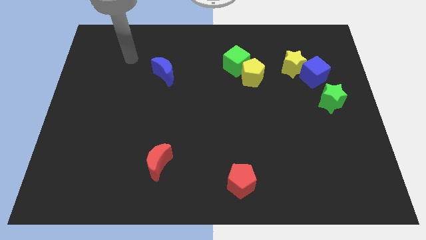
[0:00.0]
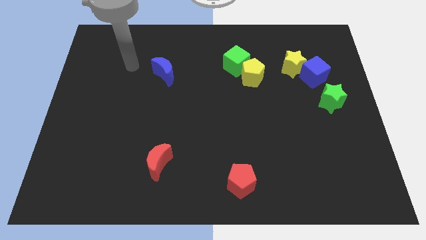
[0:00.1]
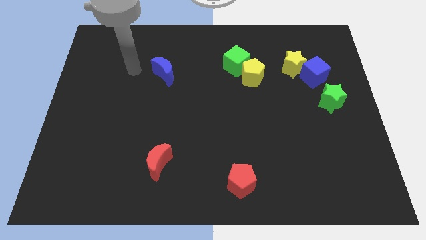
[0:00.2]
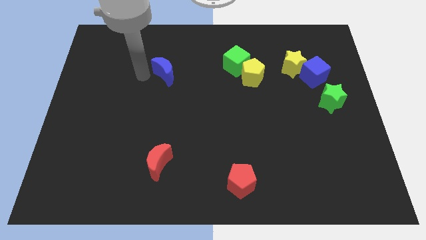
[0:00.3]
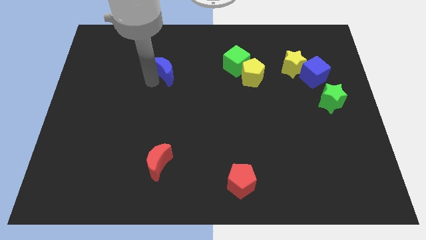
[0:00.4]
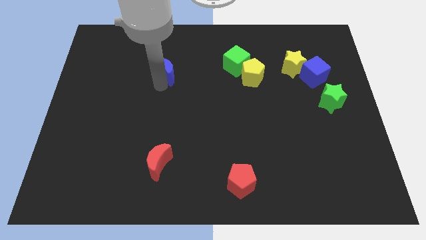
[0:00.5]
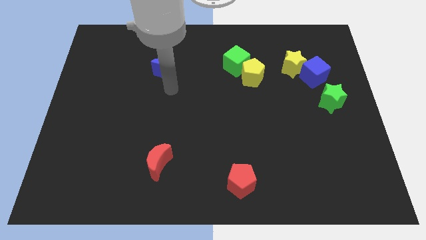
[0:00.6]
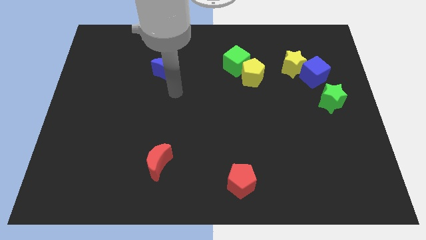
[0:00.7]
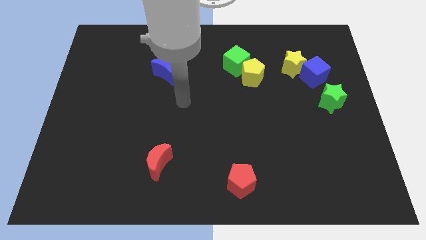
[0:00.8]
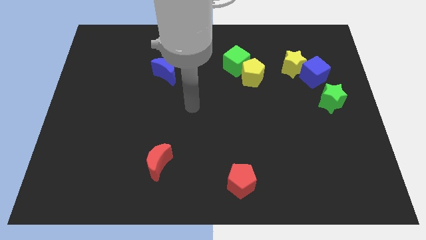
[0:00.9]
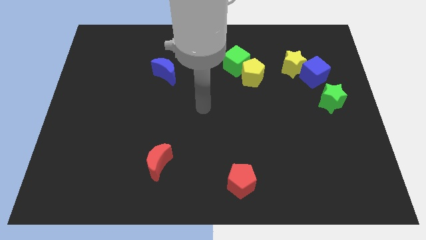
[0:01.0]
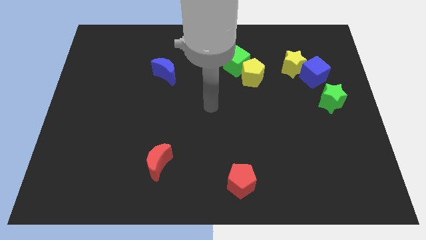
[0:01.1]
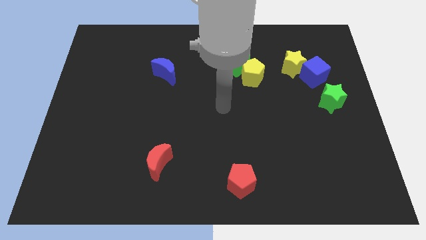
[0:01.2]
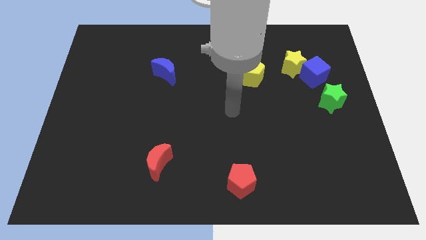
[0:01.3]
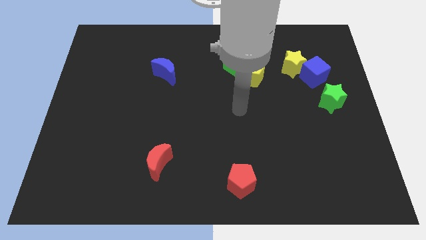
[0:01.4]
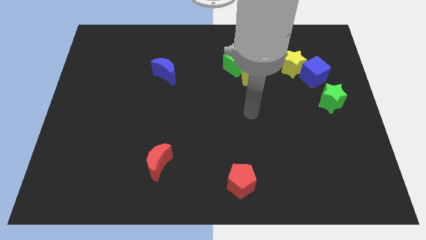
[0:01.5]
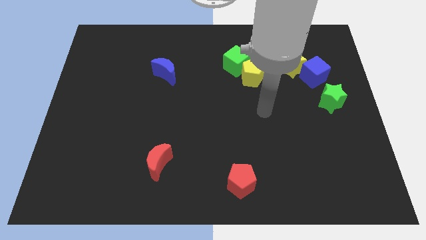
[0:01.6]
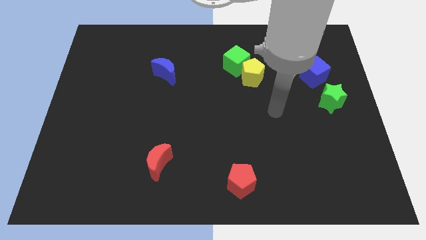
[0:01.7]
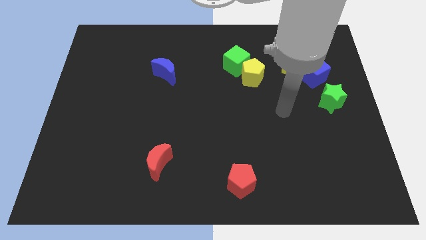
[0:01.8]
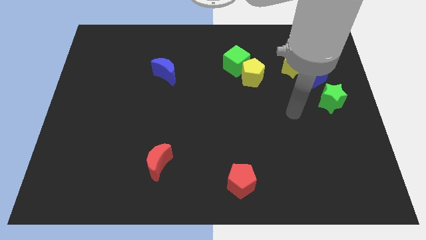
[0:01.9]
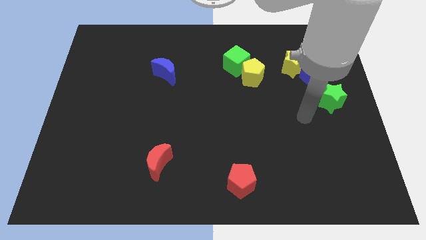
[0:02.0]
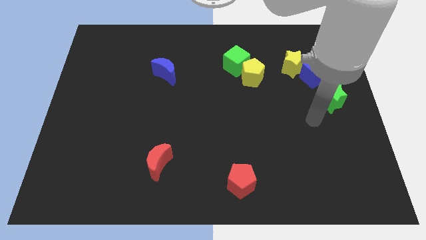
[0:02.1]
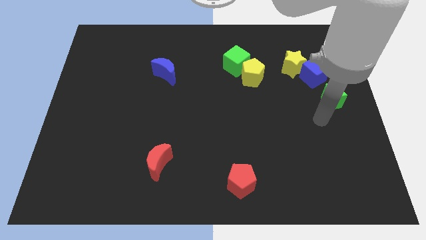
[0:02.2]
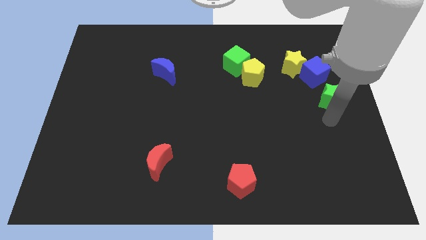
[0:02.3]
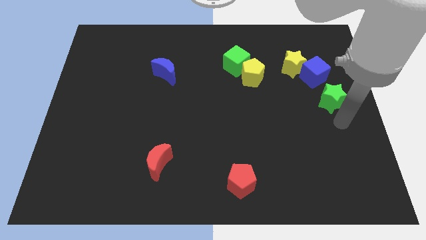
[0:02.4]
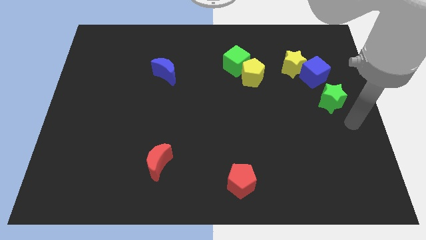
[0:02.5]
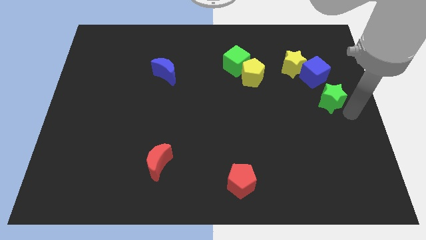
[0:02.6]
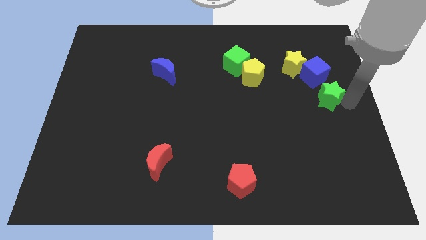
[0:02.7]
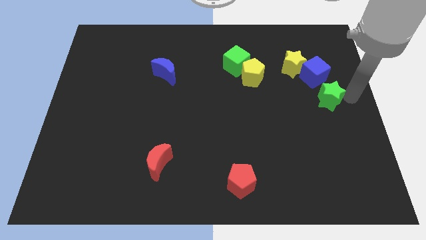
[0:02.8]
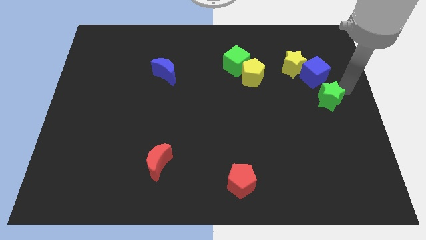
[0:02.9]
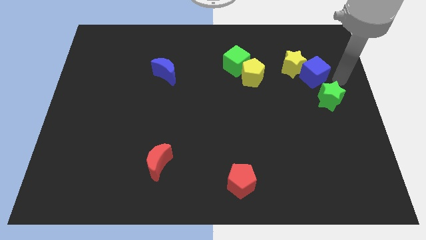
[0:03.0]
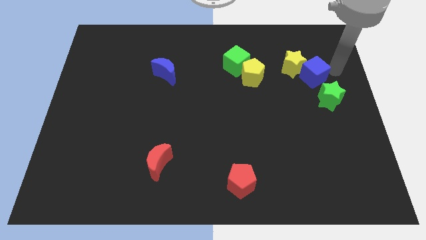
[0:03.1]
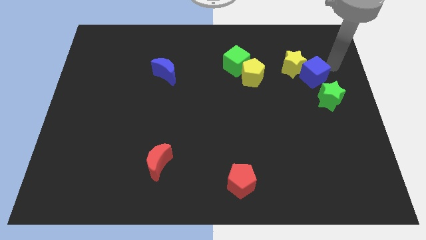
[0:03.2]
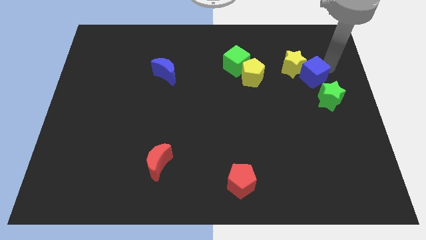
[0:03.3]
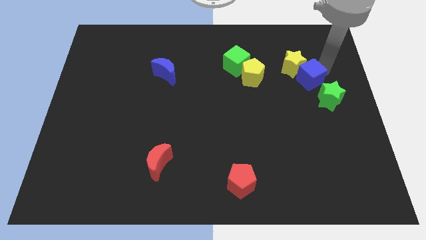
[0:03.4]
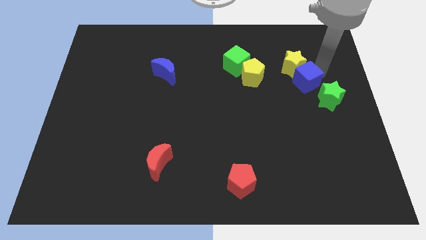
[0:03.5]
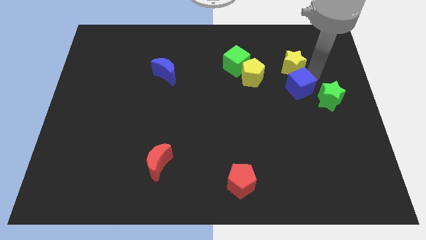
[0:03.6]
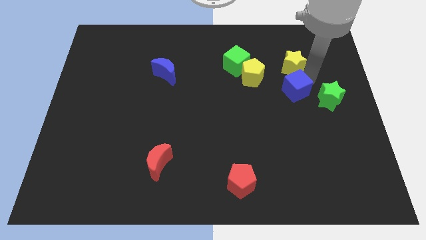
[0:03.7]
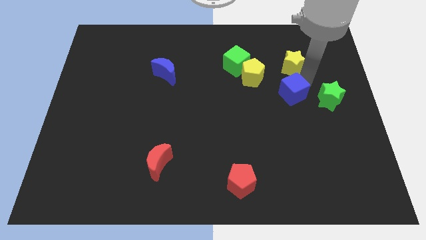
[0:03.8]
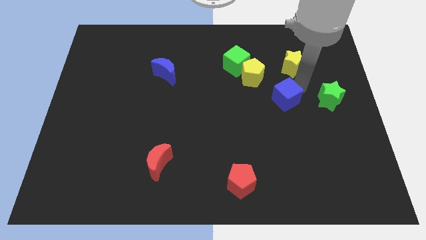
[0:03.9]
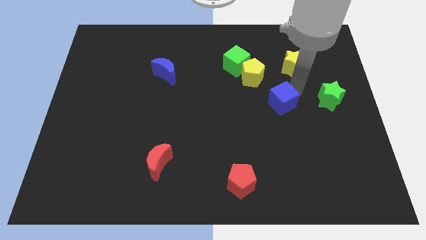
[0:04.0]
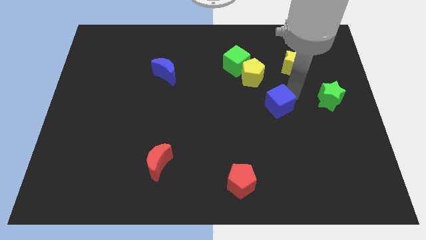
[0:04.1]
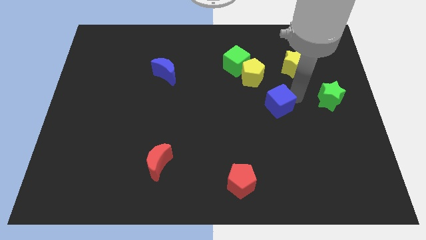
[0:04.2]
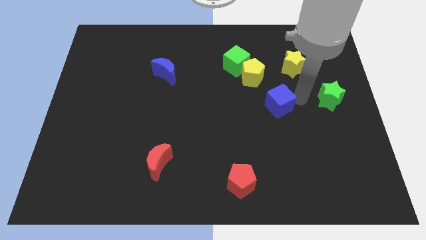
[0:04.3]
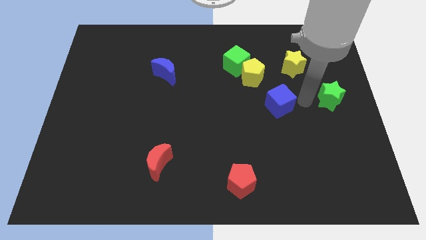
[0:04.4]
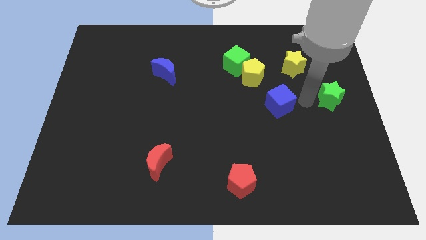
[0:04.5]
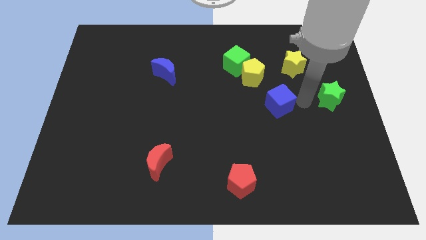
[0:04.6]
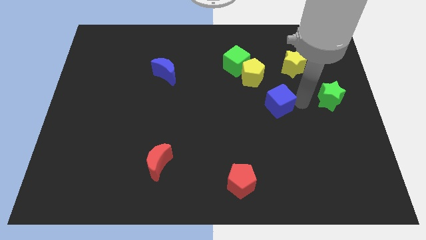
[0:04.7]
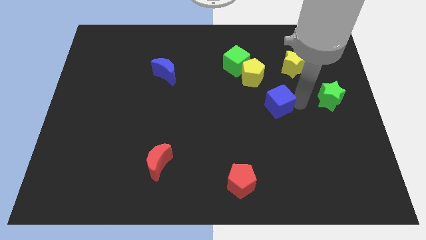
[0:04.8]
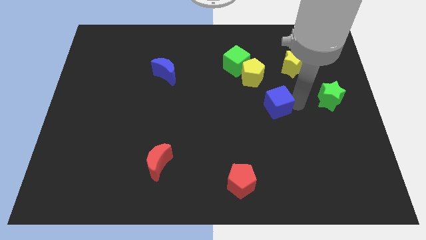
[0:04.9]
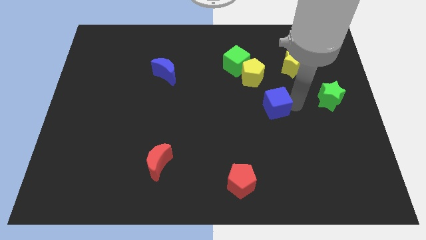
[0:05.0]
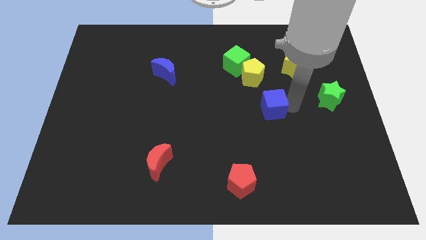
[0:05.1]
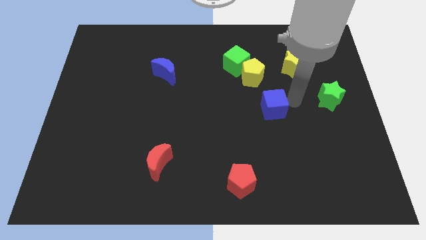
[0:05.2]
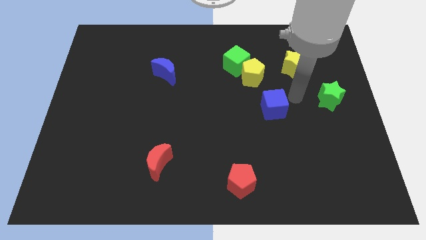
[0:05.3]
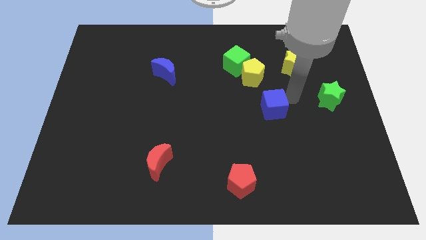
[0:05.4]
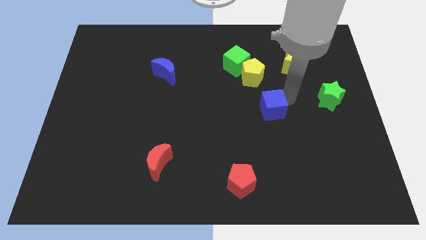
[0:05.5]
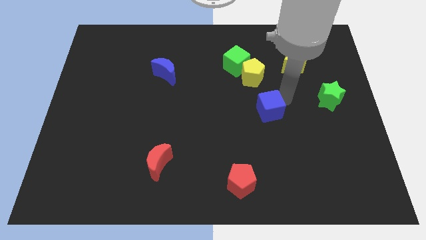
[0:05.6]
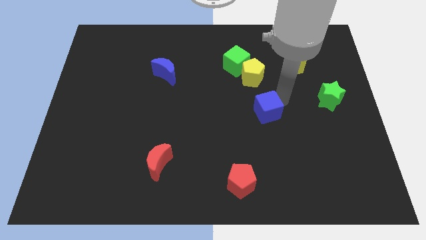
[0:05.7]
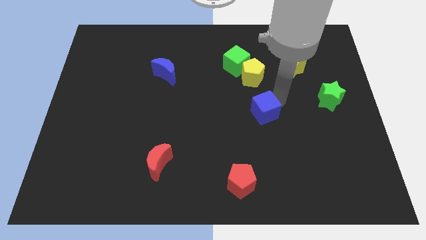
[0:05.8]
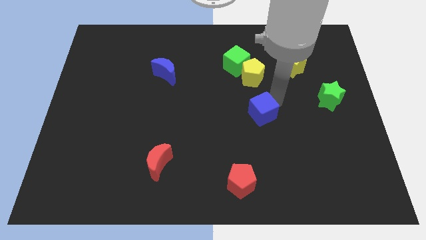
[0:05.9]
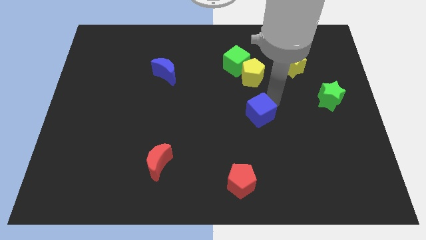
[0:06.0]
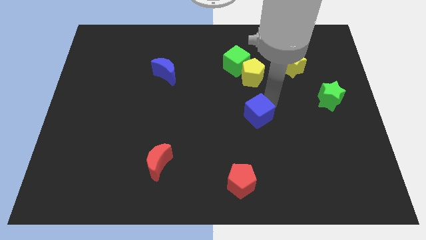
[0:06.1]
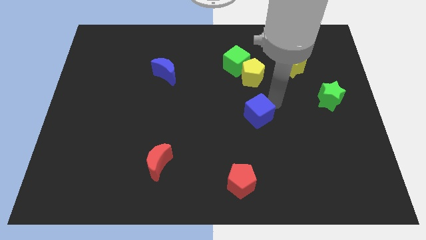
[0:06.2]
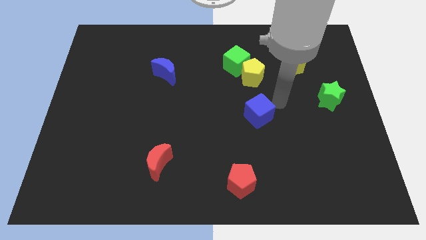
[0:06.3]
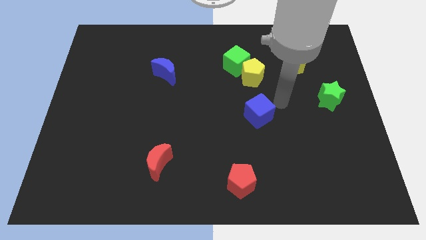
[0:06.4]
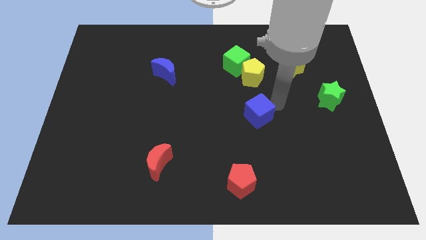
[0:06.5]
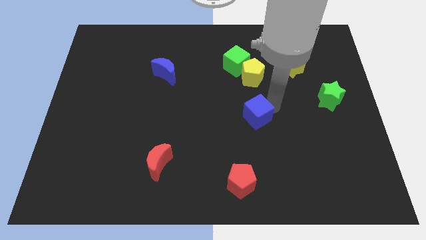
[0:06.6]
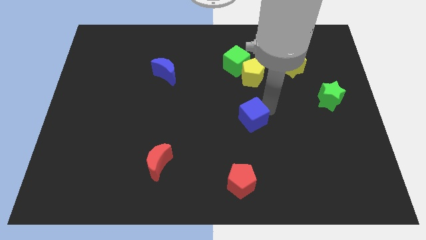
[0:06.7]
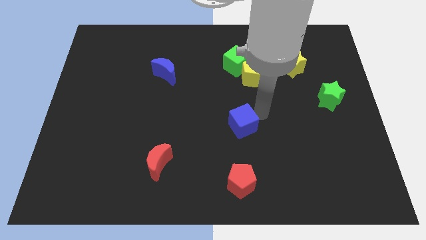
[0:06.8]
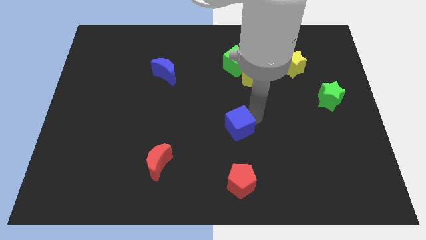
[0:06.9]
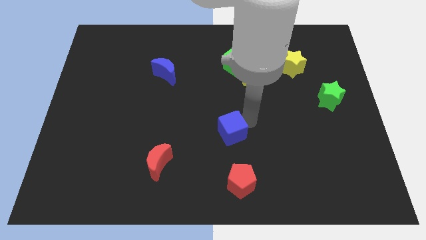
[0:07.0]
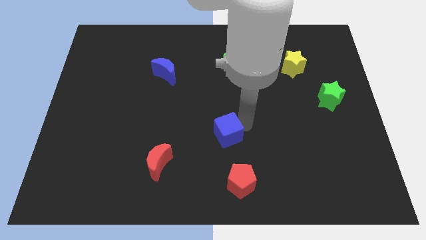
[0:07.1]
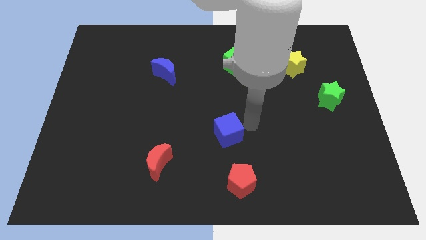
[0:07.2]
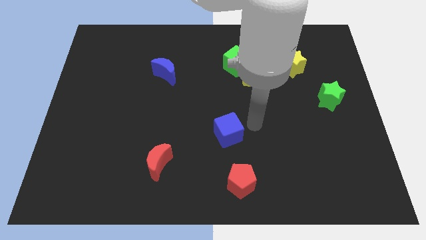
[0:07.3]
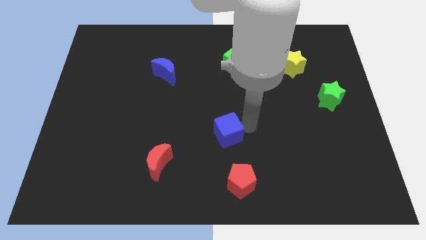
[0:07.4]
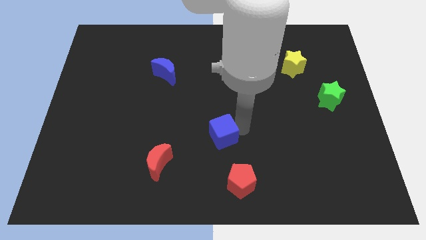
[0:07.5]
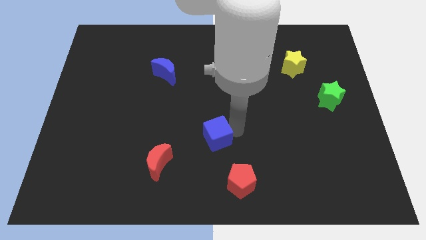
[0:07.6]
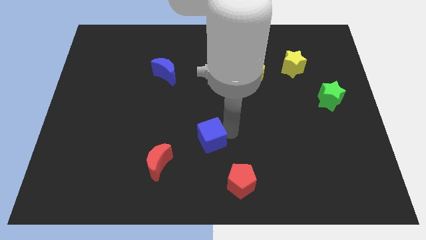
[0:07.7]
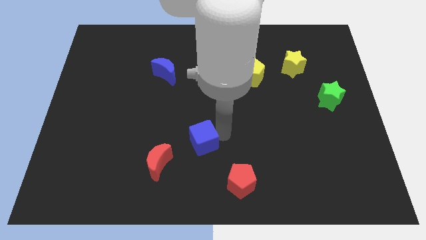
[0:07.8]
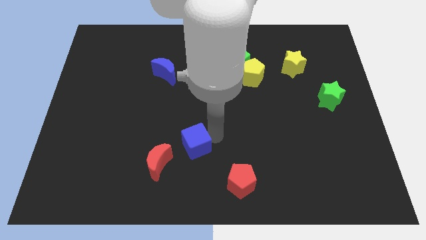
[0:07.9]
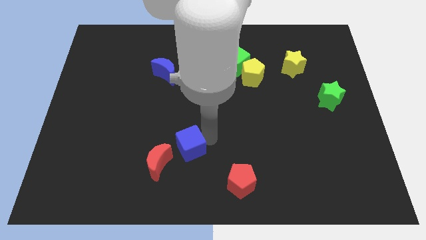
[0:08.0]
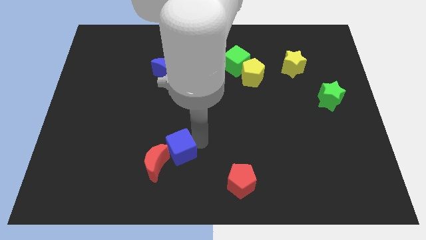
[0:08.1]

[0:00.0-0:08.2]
push the blue cube close to the red moon
